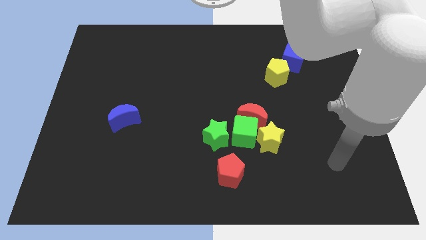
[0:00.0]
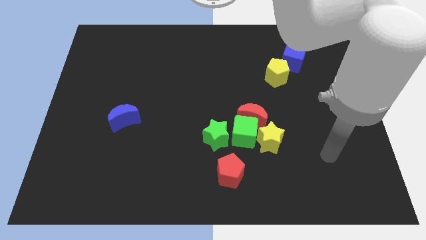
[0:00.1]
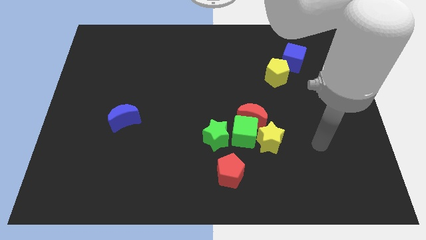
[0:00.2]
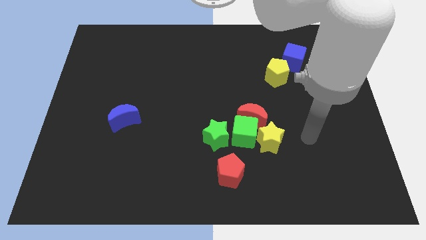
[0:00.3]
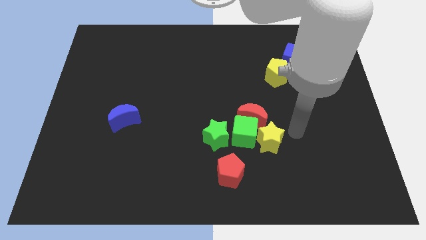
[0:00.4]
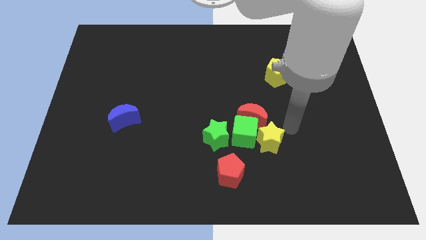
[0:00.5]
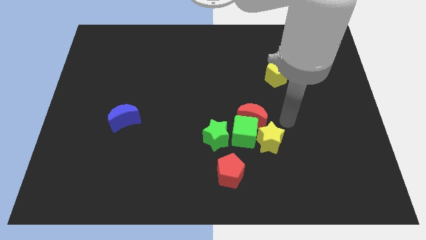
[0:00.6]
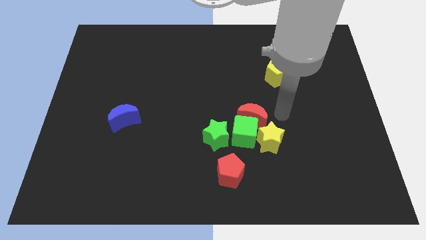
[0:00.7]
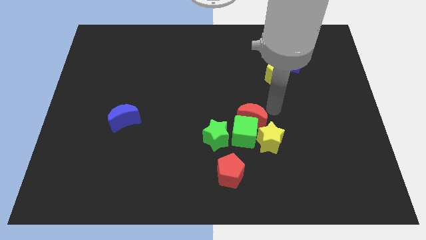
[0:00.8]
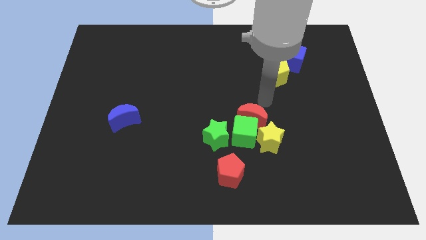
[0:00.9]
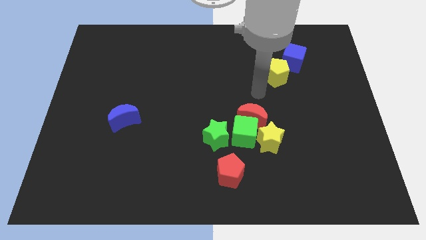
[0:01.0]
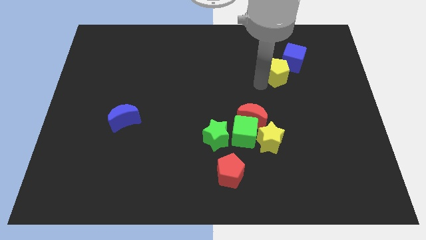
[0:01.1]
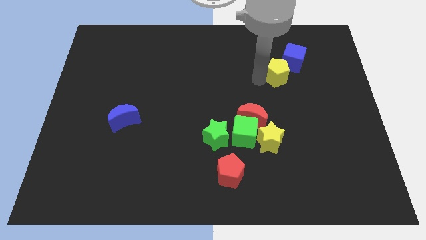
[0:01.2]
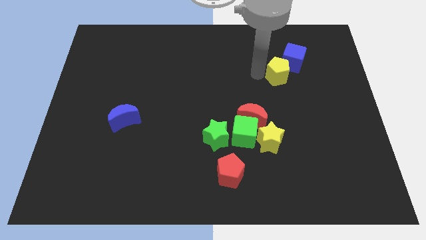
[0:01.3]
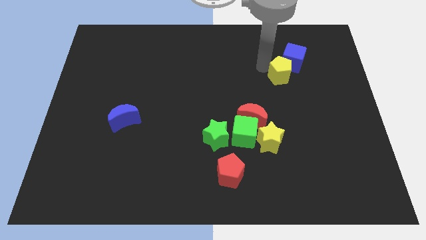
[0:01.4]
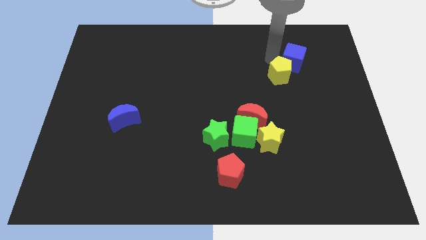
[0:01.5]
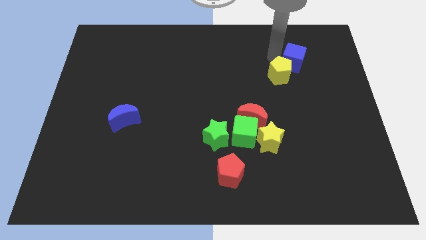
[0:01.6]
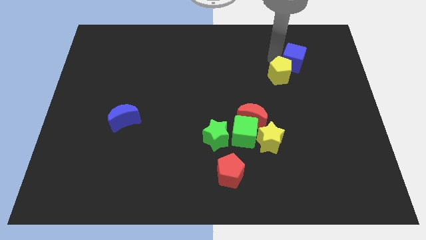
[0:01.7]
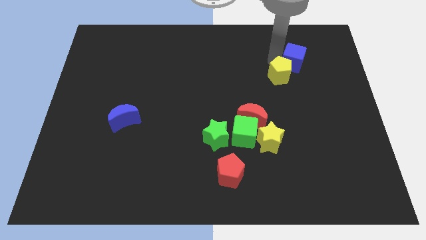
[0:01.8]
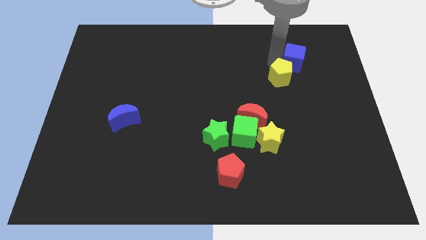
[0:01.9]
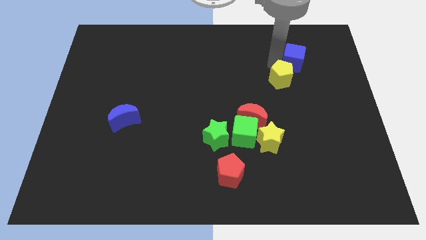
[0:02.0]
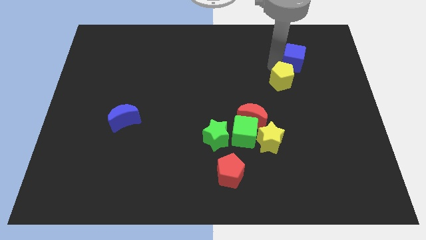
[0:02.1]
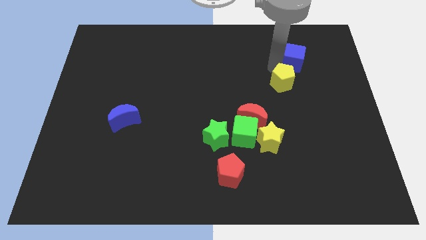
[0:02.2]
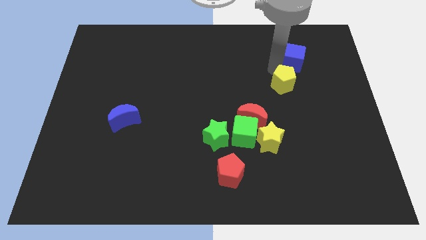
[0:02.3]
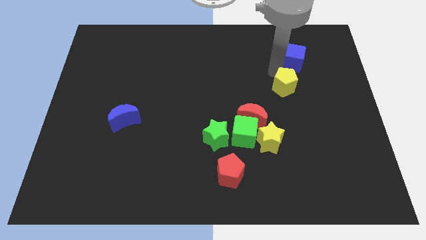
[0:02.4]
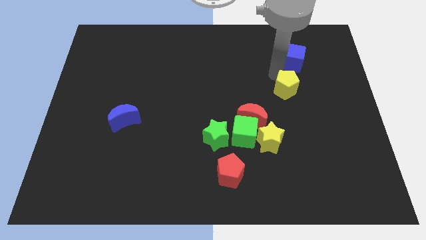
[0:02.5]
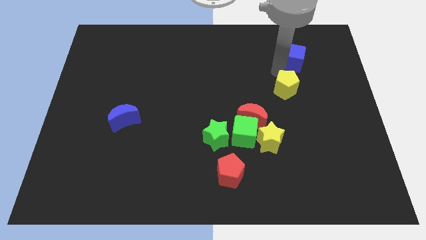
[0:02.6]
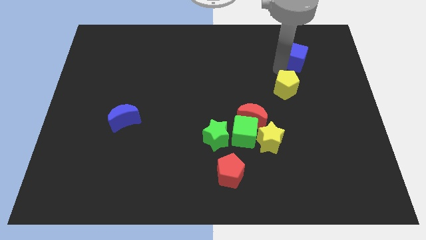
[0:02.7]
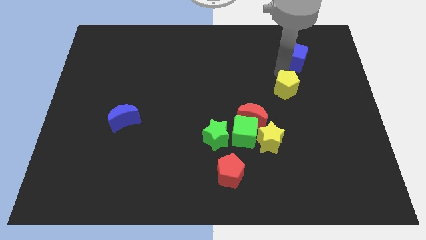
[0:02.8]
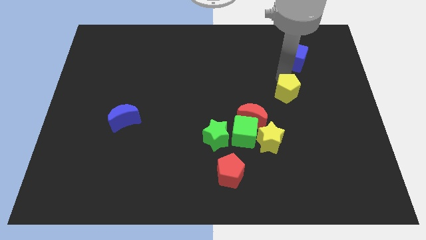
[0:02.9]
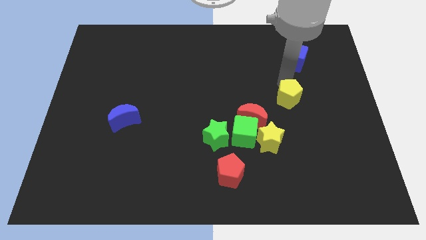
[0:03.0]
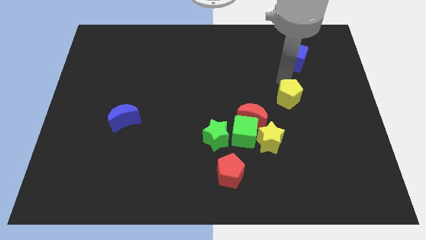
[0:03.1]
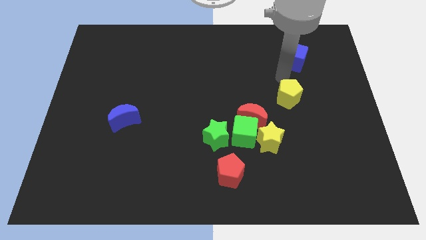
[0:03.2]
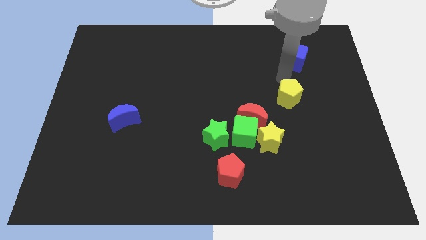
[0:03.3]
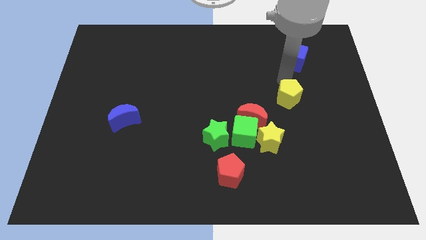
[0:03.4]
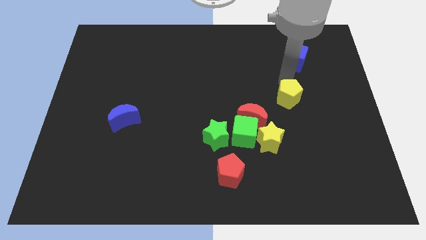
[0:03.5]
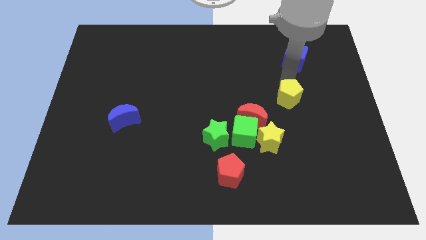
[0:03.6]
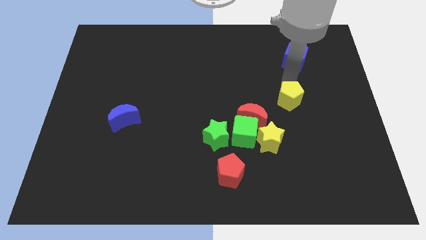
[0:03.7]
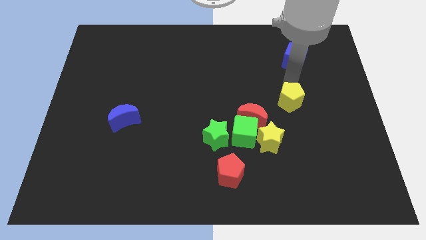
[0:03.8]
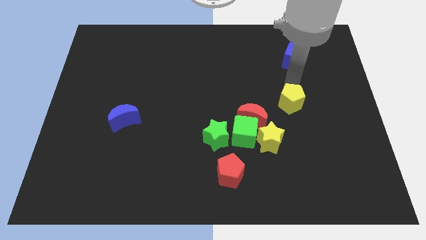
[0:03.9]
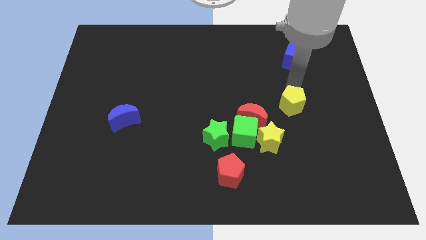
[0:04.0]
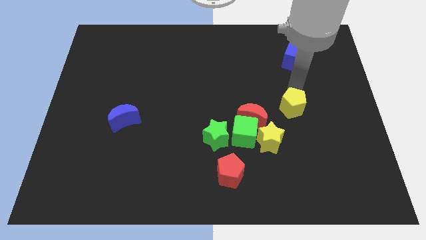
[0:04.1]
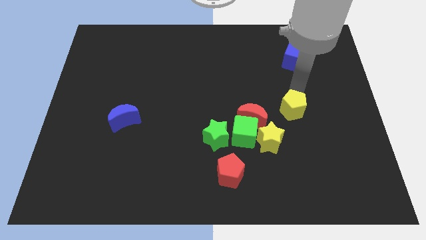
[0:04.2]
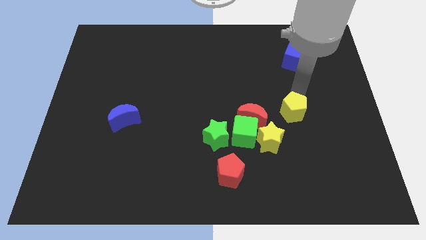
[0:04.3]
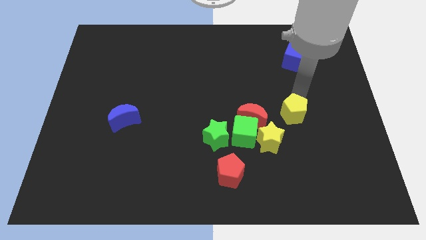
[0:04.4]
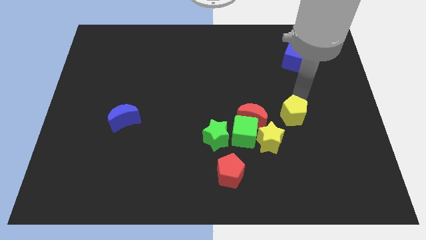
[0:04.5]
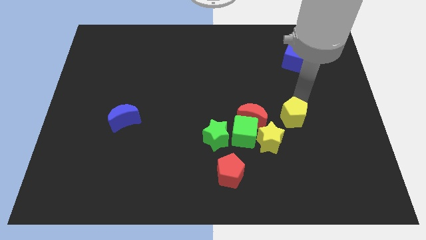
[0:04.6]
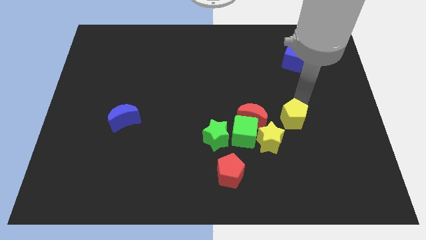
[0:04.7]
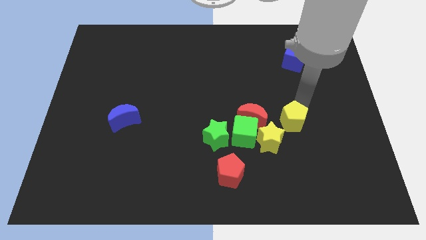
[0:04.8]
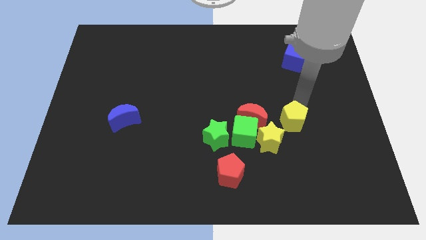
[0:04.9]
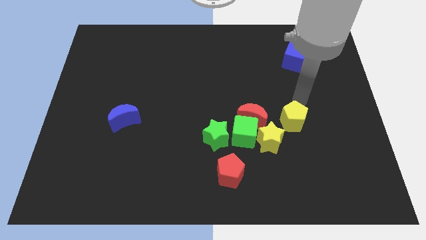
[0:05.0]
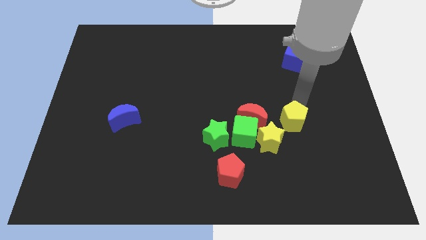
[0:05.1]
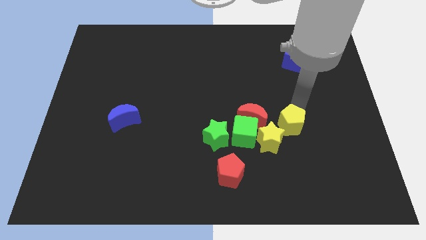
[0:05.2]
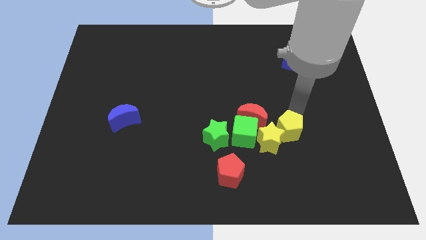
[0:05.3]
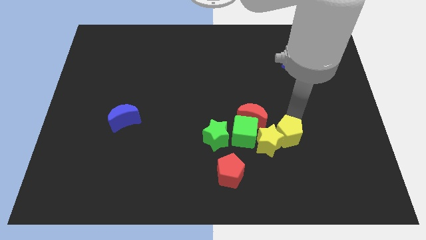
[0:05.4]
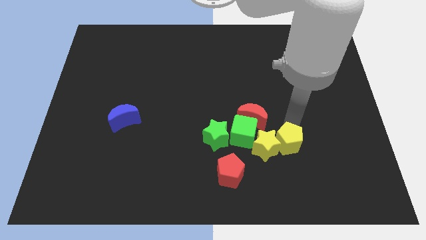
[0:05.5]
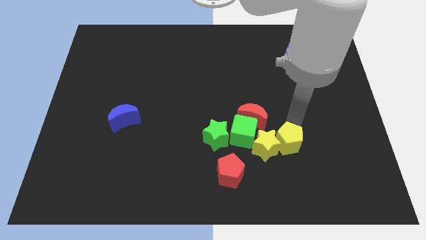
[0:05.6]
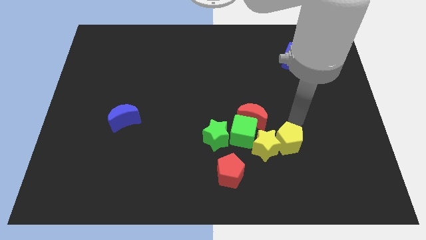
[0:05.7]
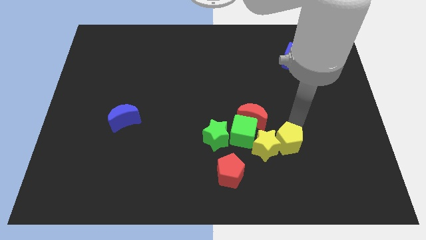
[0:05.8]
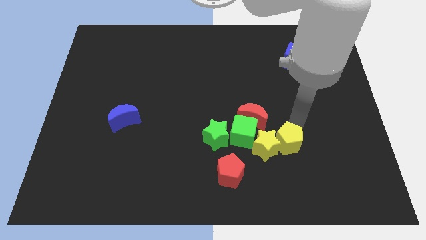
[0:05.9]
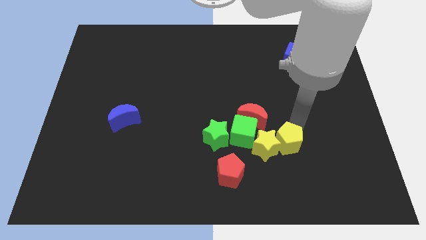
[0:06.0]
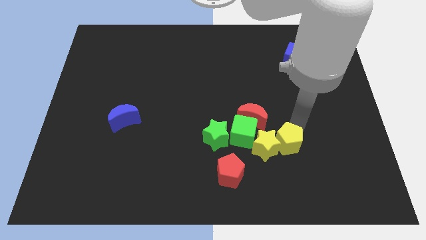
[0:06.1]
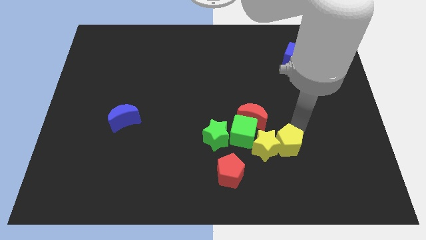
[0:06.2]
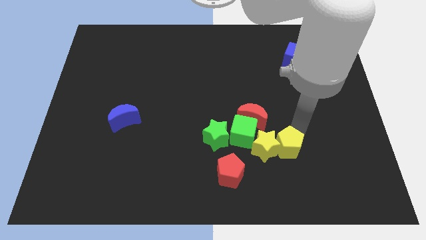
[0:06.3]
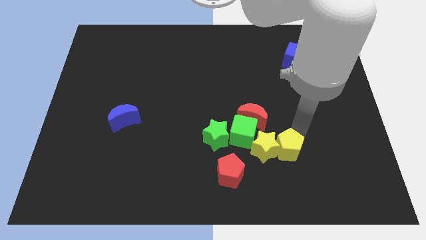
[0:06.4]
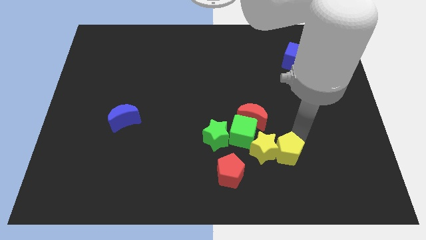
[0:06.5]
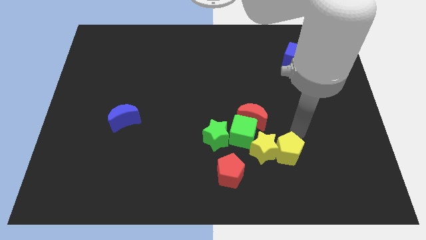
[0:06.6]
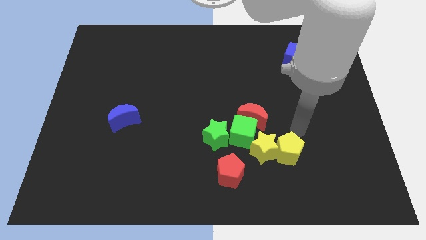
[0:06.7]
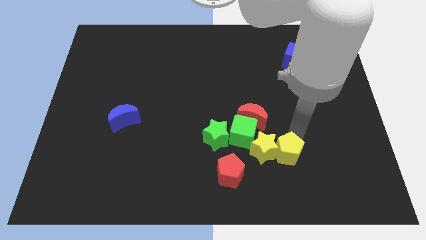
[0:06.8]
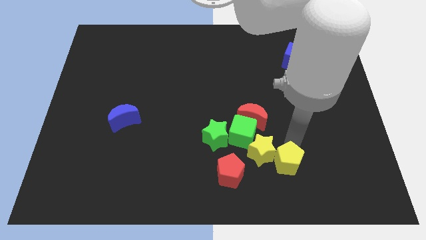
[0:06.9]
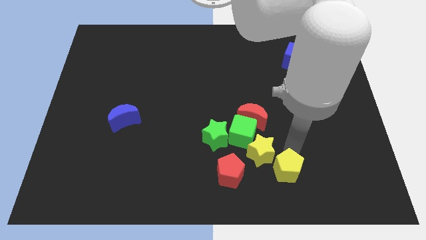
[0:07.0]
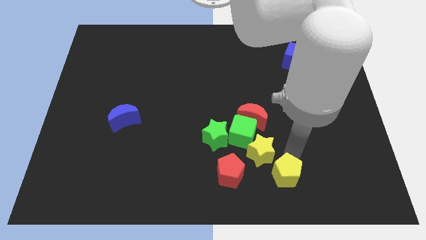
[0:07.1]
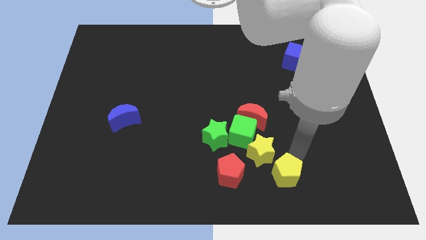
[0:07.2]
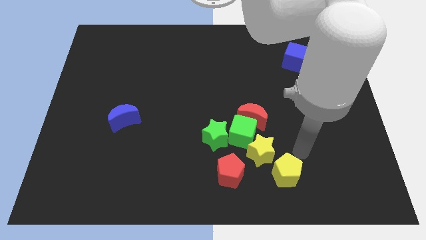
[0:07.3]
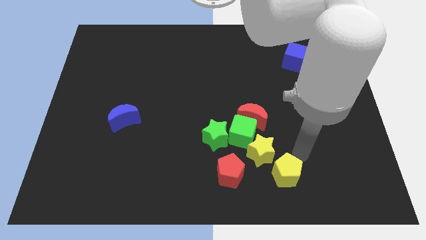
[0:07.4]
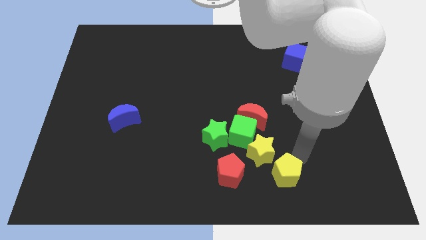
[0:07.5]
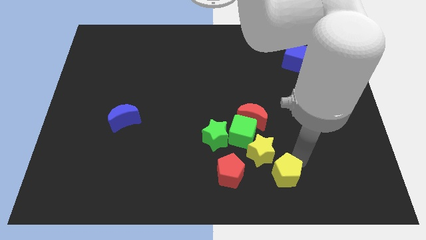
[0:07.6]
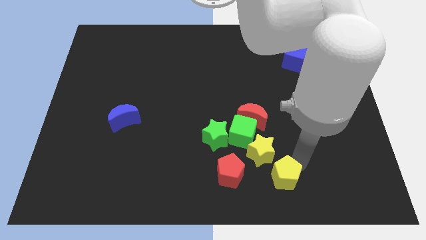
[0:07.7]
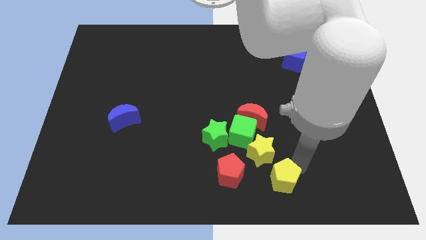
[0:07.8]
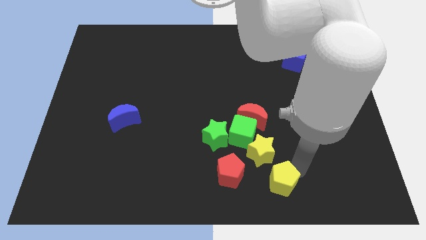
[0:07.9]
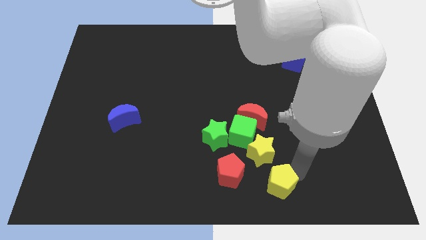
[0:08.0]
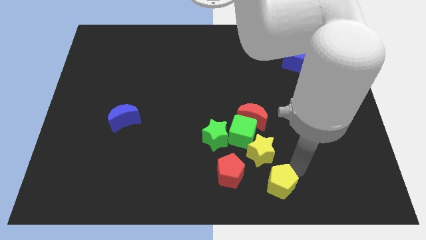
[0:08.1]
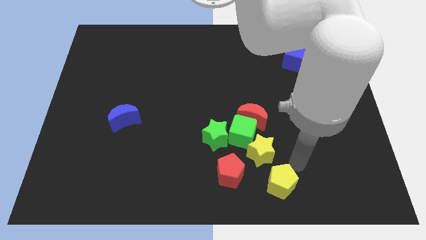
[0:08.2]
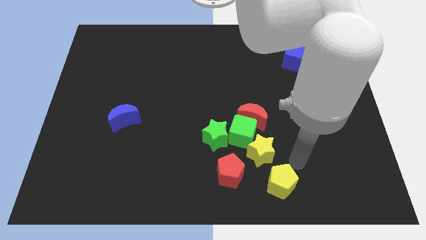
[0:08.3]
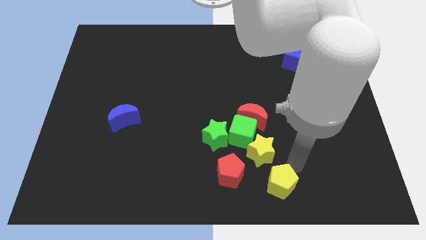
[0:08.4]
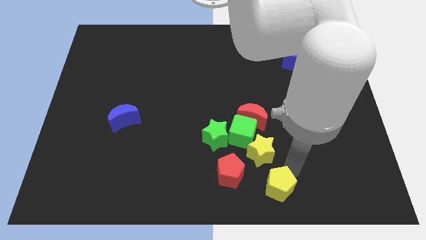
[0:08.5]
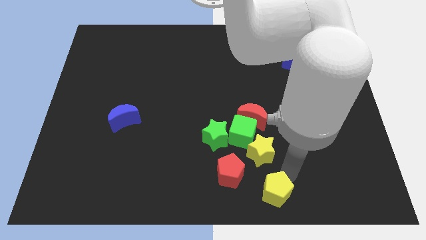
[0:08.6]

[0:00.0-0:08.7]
slide the yellow pentagon to the bottom
